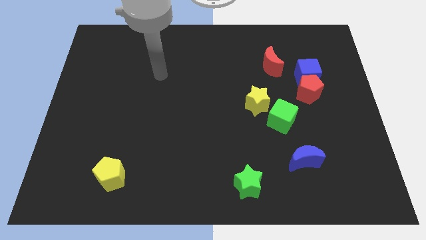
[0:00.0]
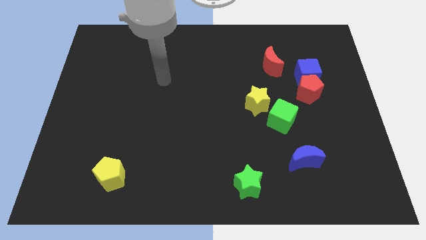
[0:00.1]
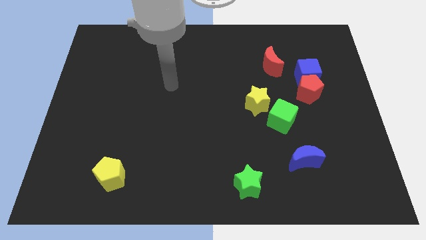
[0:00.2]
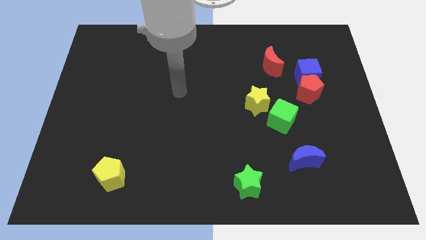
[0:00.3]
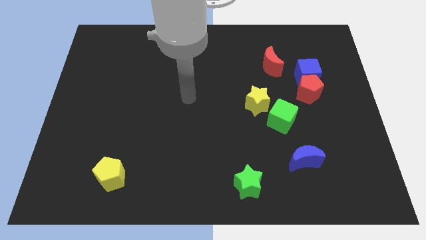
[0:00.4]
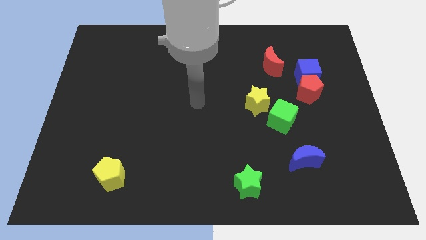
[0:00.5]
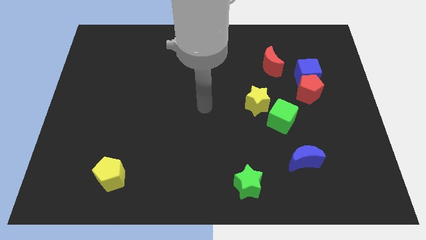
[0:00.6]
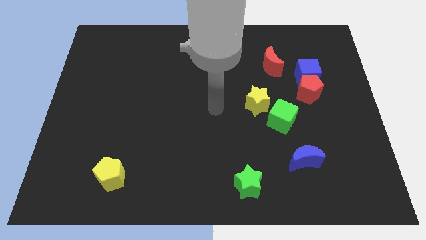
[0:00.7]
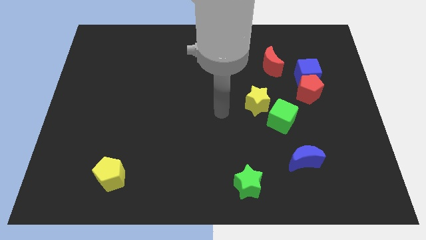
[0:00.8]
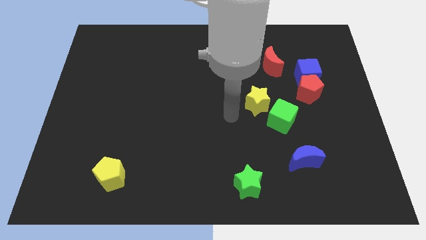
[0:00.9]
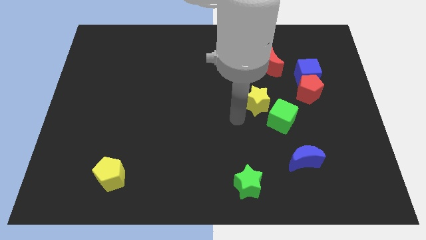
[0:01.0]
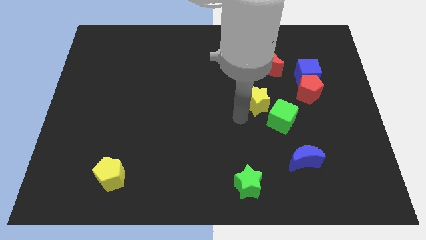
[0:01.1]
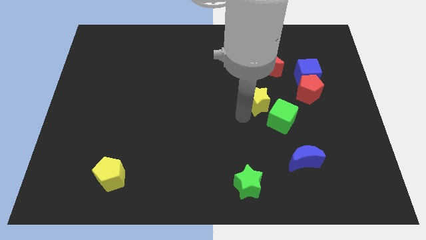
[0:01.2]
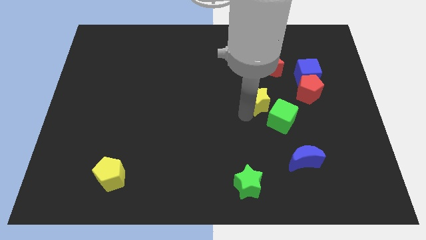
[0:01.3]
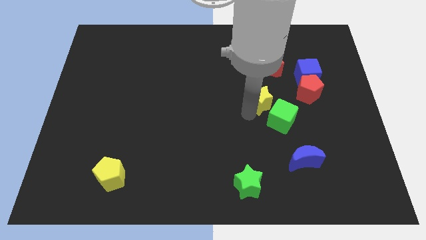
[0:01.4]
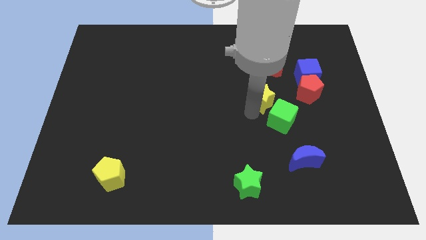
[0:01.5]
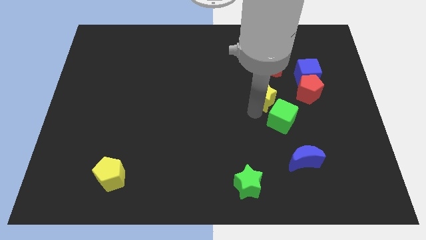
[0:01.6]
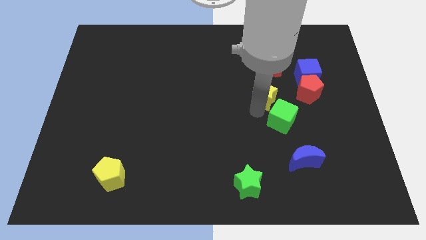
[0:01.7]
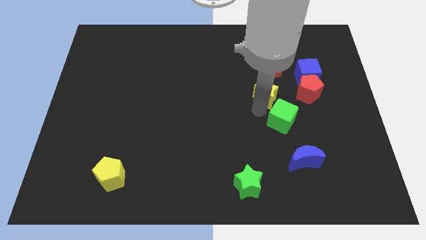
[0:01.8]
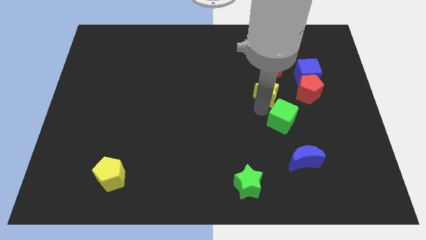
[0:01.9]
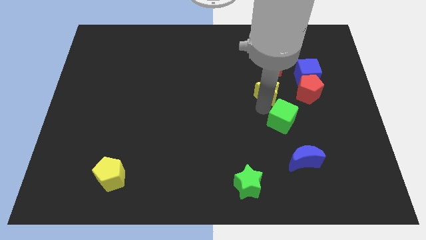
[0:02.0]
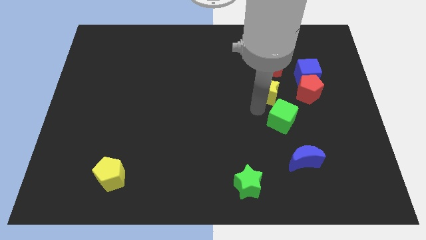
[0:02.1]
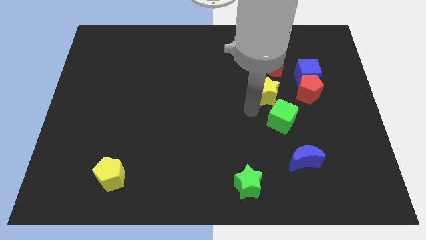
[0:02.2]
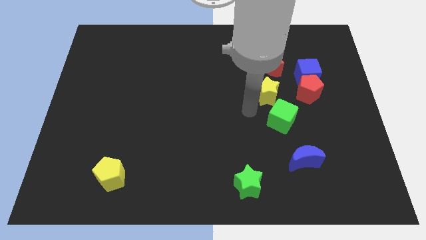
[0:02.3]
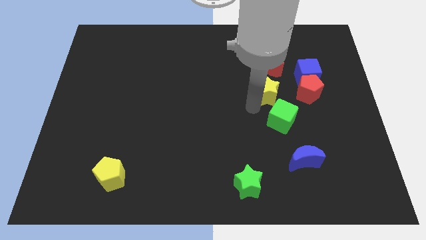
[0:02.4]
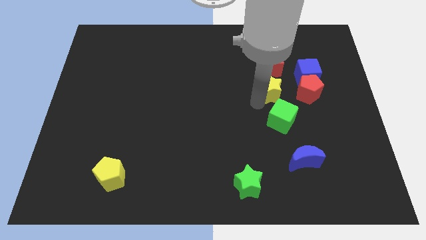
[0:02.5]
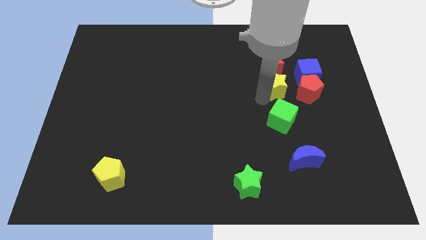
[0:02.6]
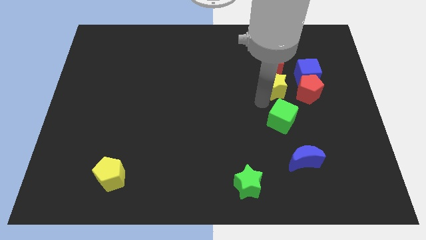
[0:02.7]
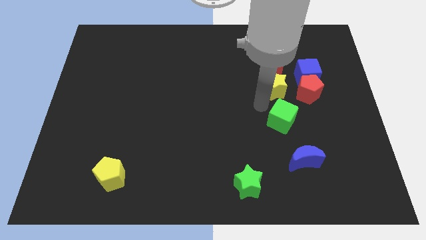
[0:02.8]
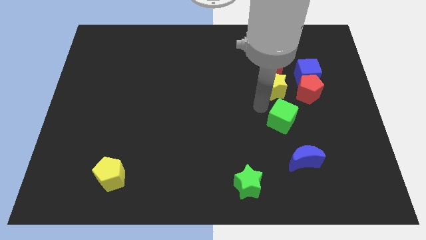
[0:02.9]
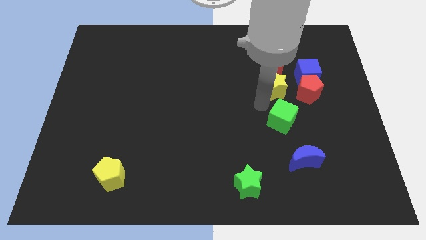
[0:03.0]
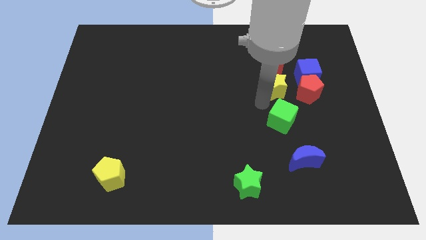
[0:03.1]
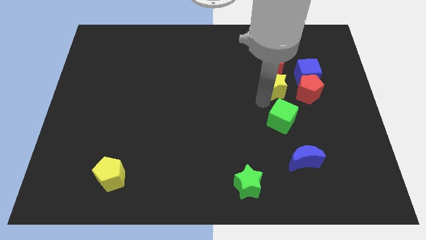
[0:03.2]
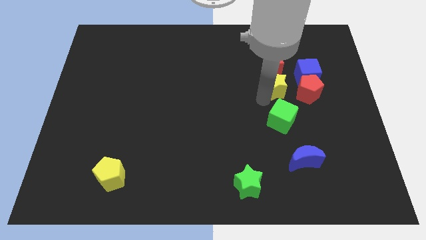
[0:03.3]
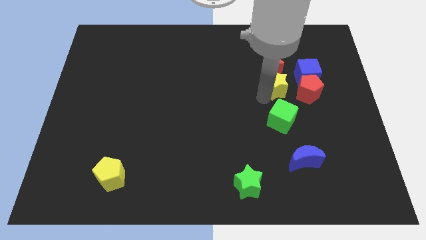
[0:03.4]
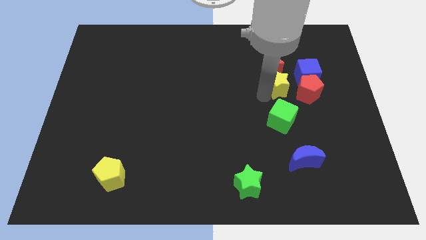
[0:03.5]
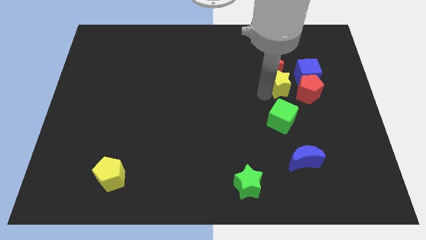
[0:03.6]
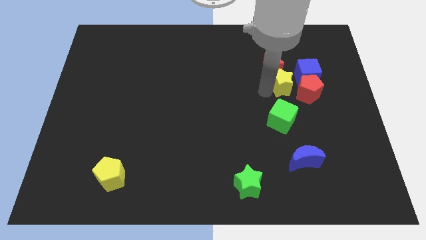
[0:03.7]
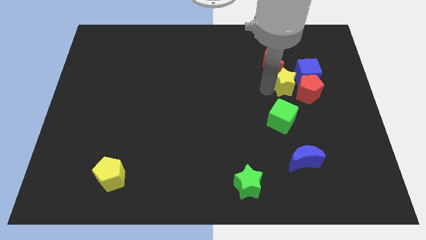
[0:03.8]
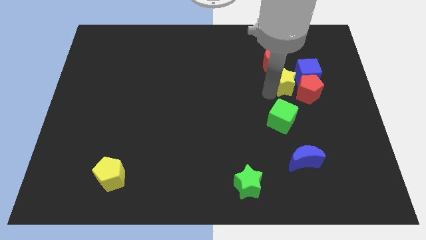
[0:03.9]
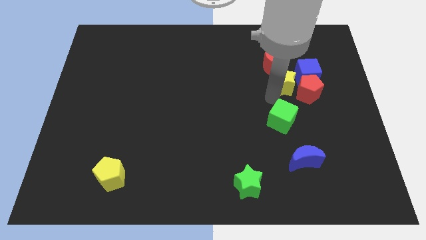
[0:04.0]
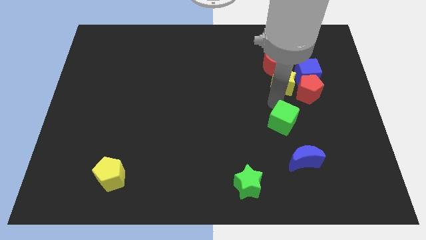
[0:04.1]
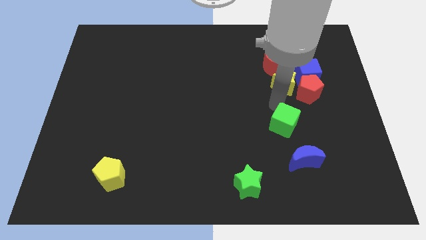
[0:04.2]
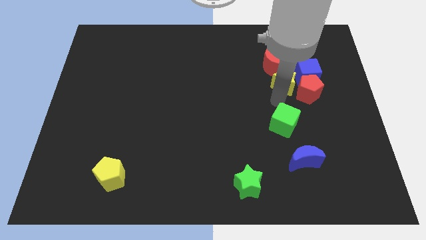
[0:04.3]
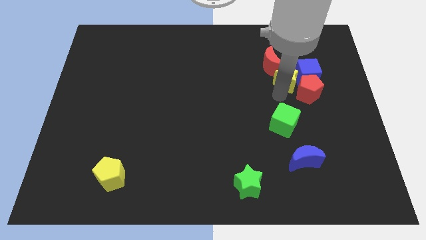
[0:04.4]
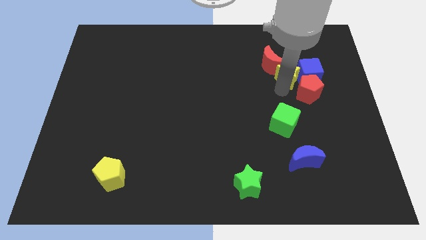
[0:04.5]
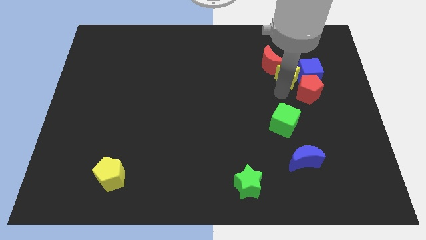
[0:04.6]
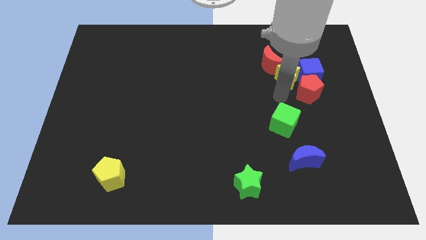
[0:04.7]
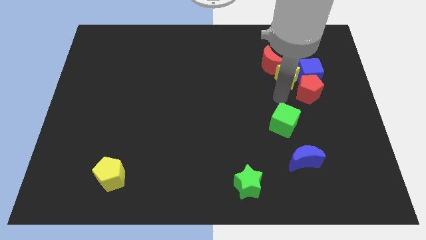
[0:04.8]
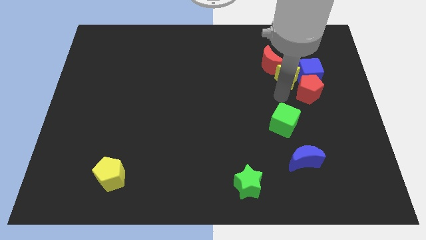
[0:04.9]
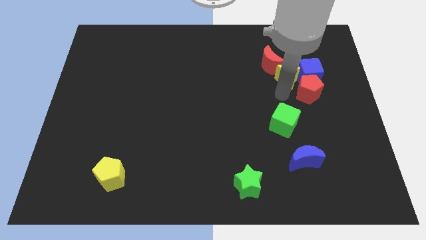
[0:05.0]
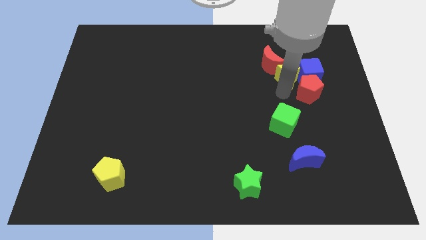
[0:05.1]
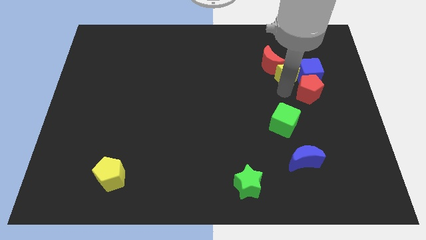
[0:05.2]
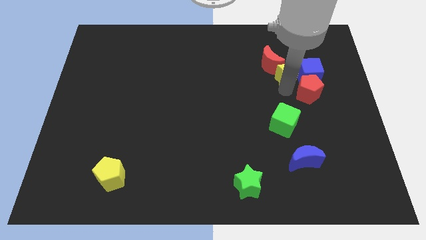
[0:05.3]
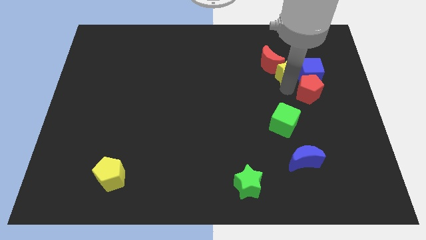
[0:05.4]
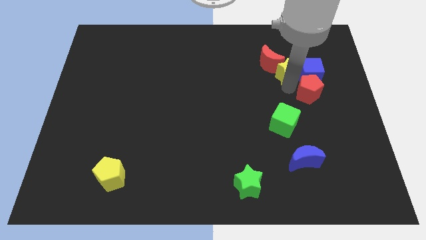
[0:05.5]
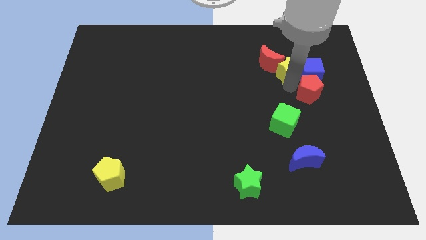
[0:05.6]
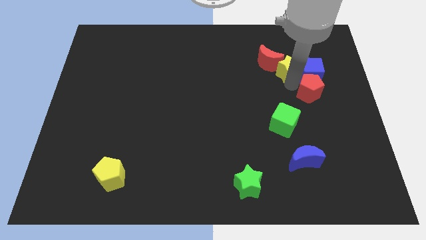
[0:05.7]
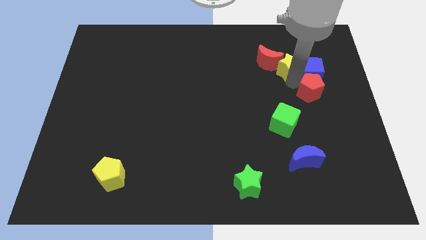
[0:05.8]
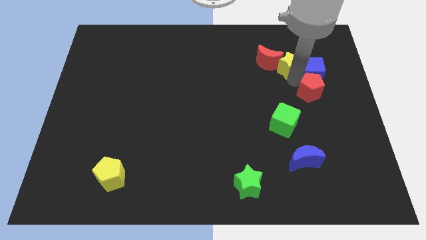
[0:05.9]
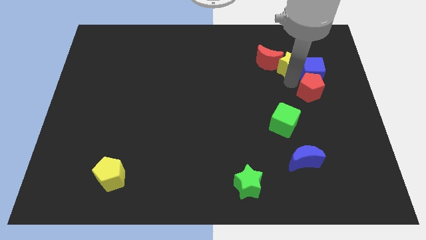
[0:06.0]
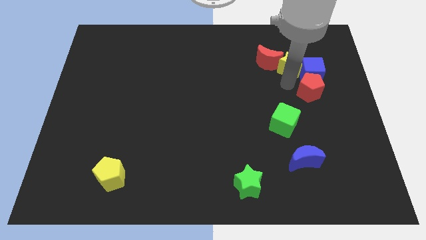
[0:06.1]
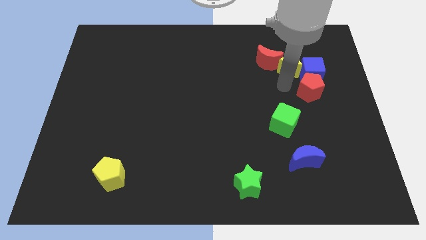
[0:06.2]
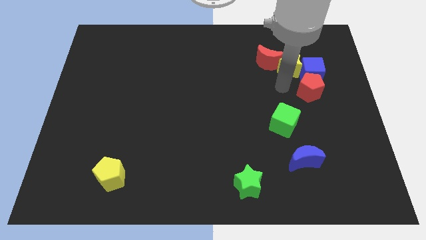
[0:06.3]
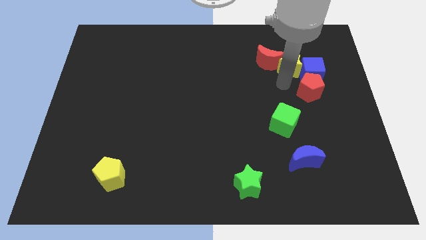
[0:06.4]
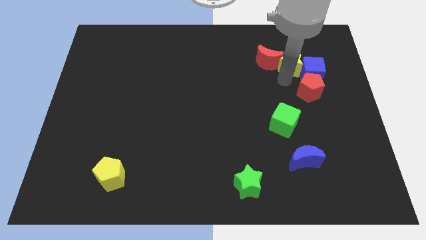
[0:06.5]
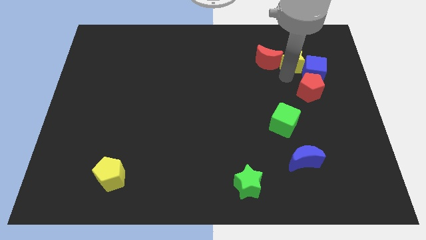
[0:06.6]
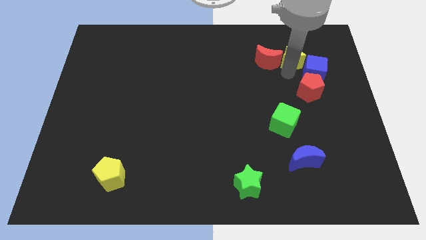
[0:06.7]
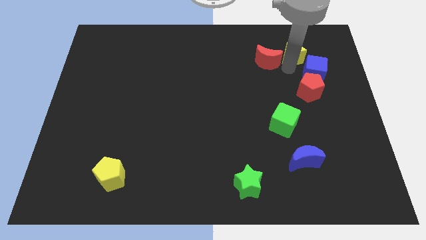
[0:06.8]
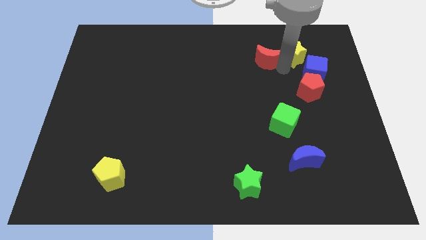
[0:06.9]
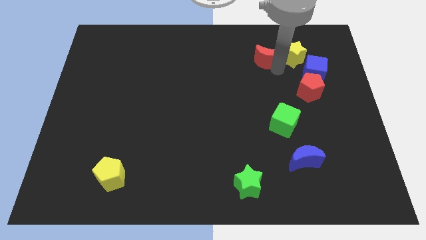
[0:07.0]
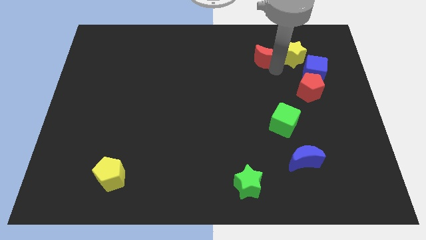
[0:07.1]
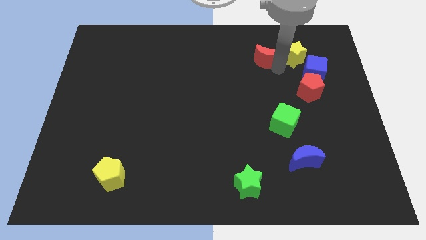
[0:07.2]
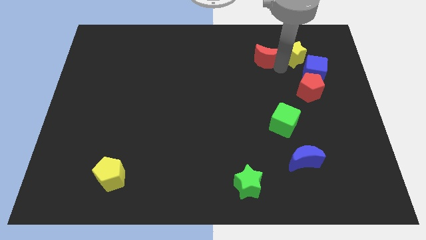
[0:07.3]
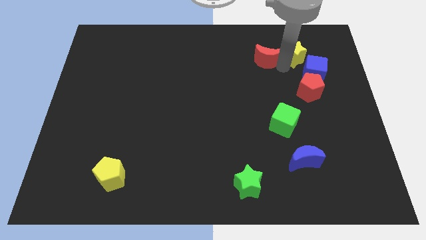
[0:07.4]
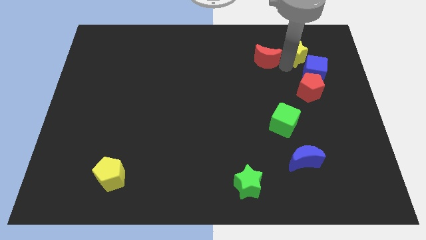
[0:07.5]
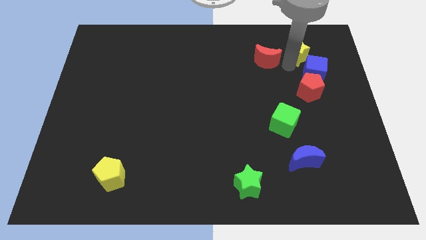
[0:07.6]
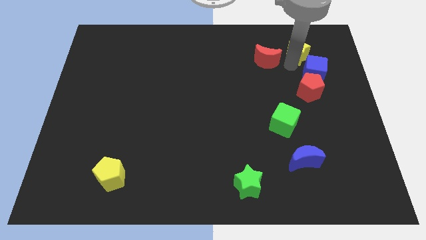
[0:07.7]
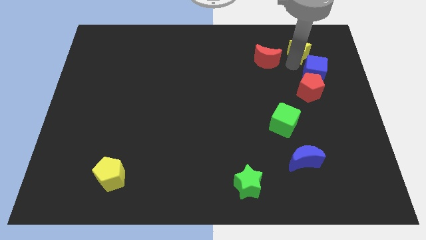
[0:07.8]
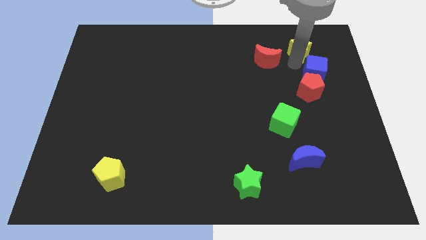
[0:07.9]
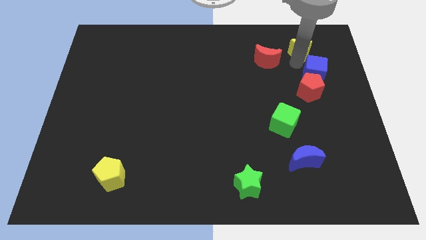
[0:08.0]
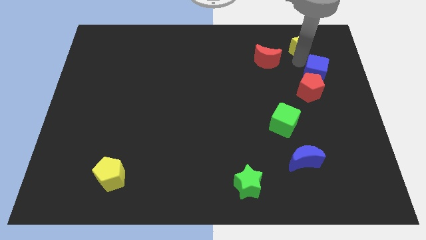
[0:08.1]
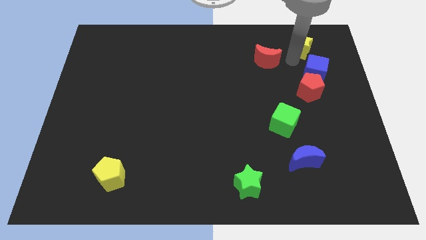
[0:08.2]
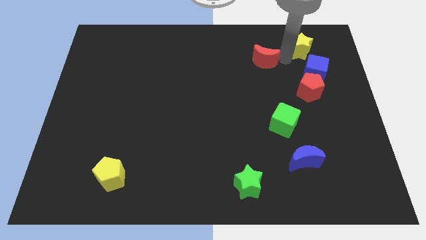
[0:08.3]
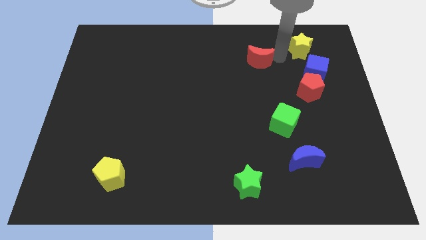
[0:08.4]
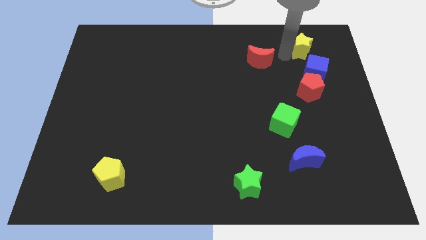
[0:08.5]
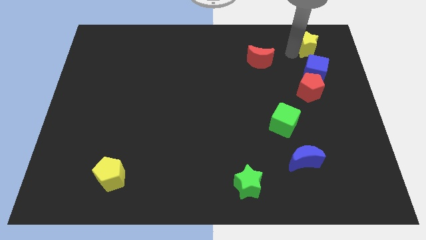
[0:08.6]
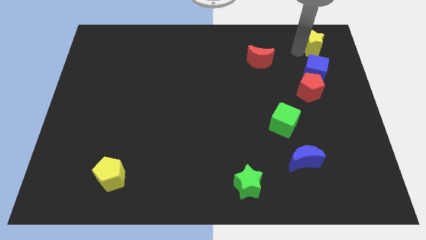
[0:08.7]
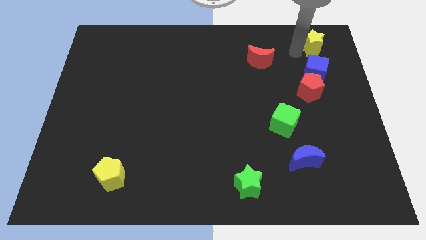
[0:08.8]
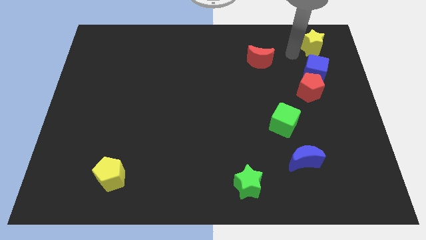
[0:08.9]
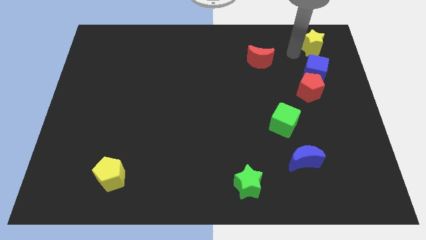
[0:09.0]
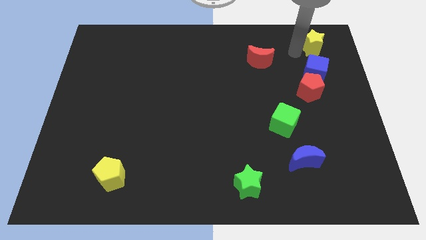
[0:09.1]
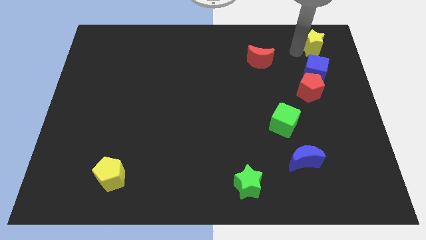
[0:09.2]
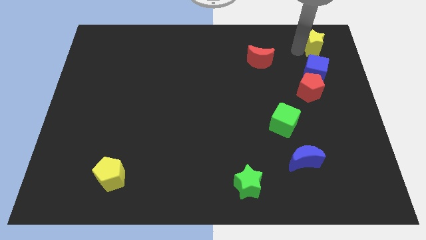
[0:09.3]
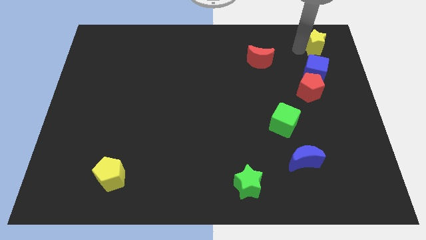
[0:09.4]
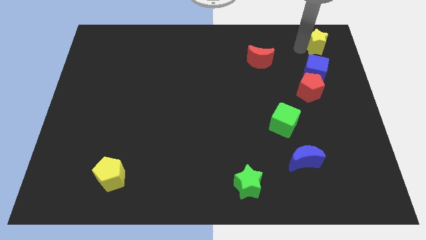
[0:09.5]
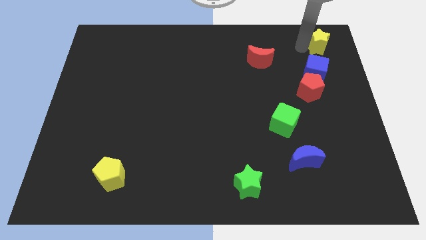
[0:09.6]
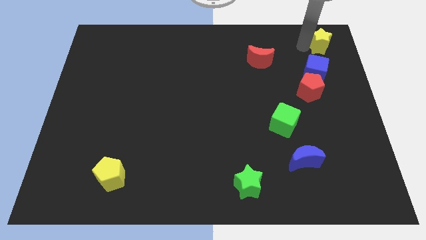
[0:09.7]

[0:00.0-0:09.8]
push the yellow star to the top right corner
